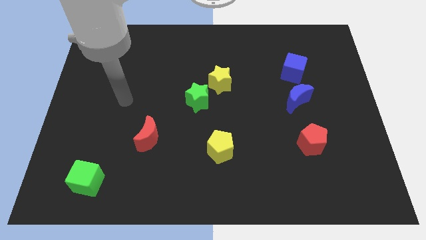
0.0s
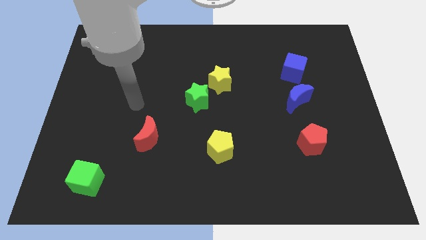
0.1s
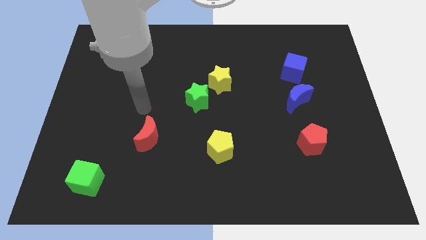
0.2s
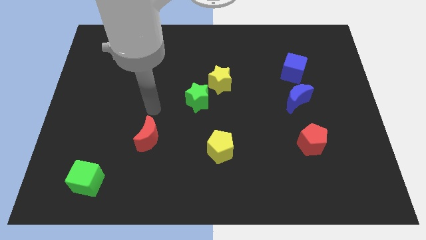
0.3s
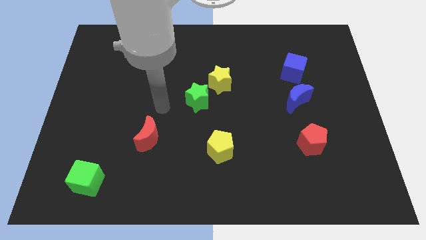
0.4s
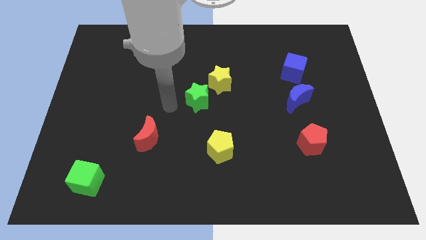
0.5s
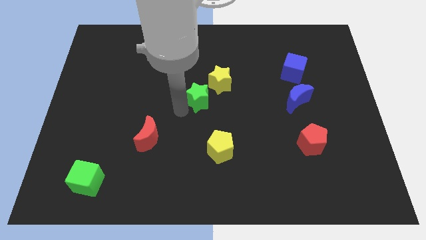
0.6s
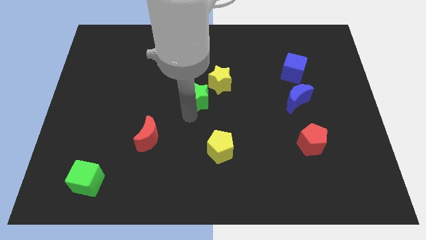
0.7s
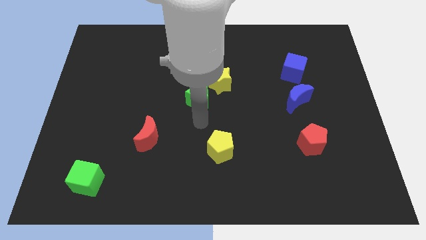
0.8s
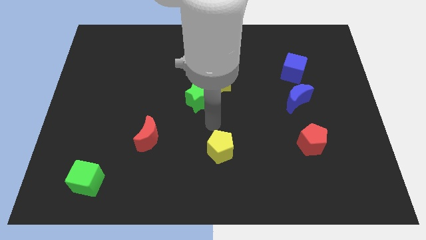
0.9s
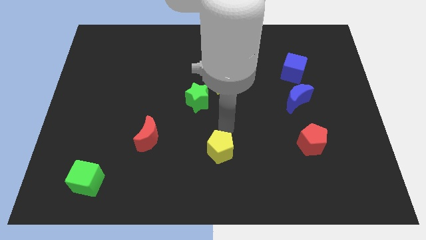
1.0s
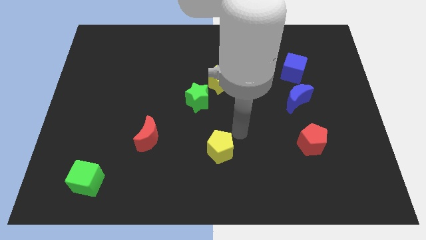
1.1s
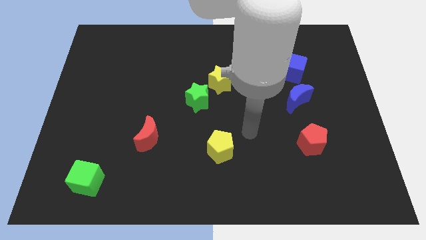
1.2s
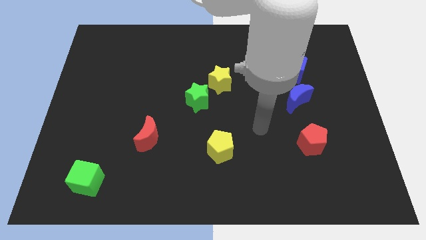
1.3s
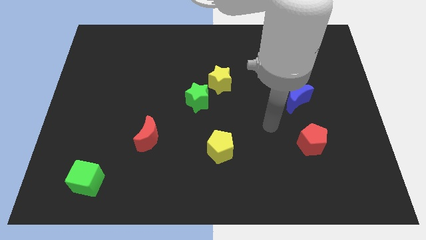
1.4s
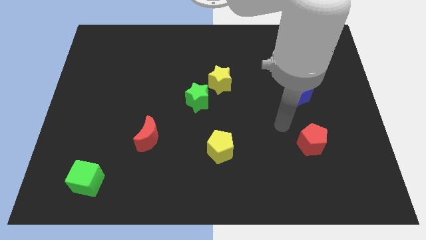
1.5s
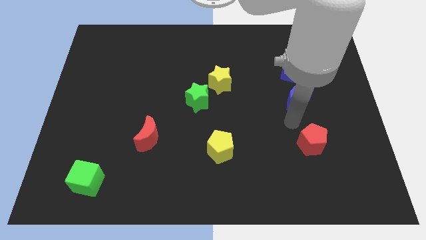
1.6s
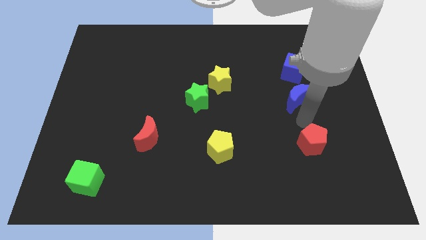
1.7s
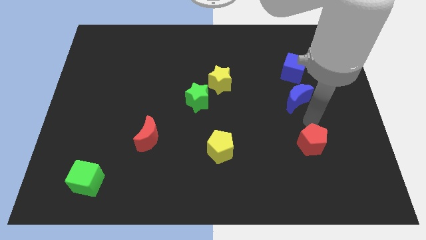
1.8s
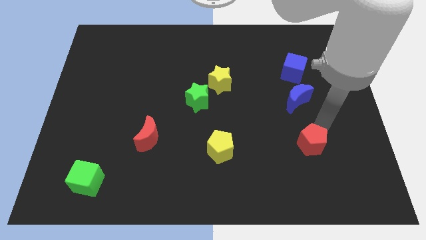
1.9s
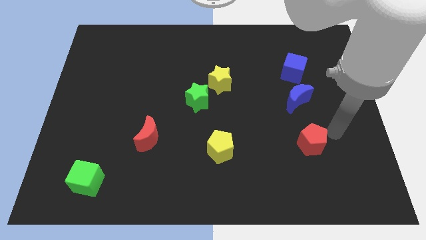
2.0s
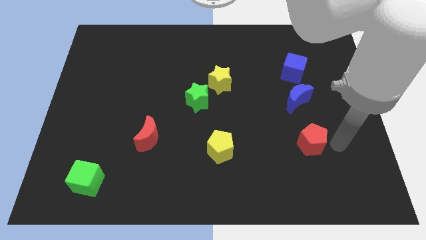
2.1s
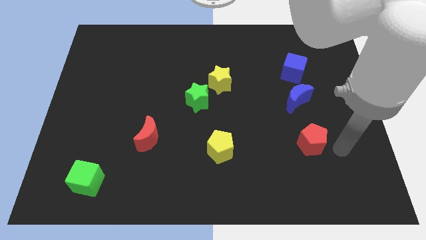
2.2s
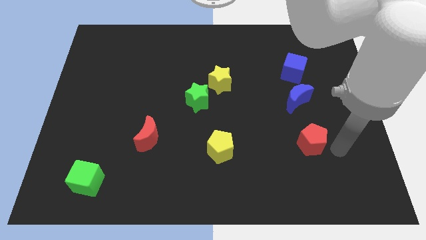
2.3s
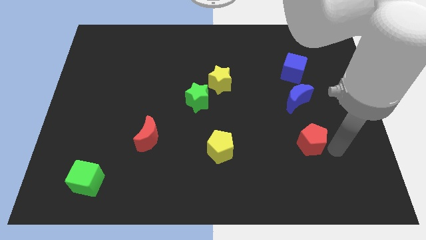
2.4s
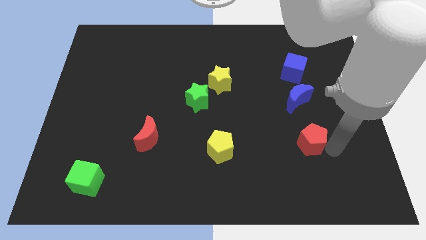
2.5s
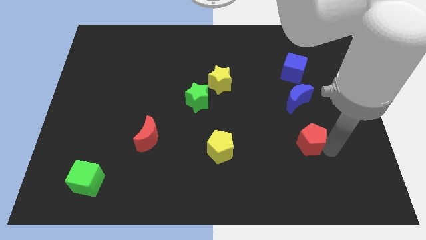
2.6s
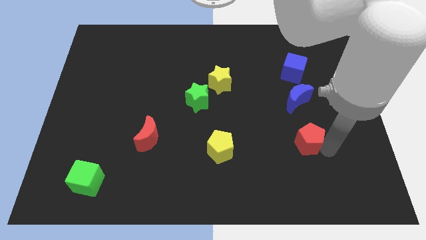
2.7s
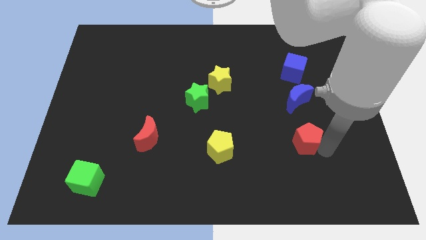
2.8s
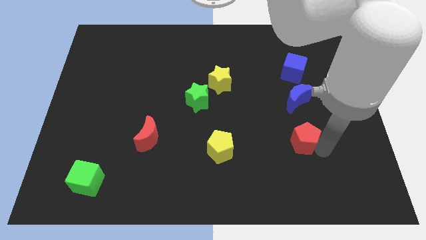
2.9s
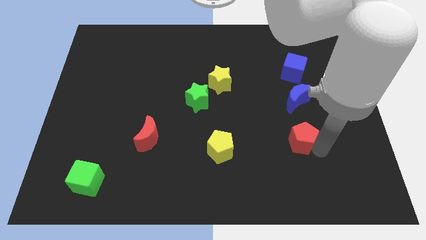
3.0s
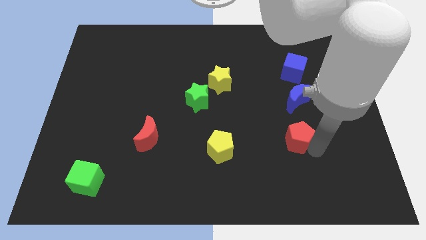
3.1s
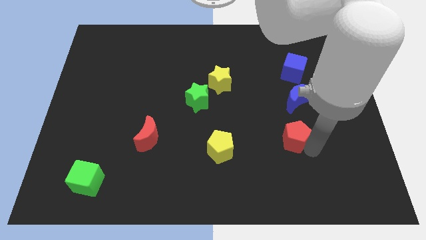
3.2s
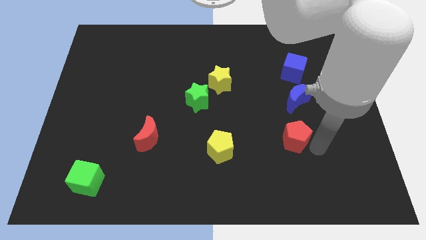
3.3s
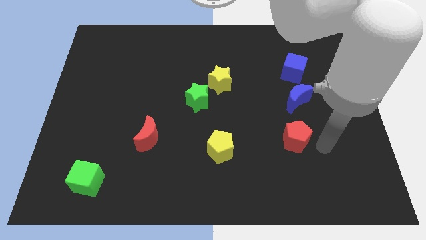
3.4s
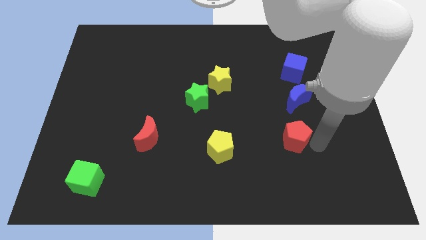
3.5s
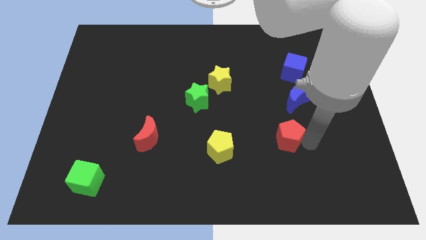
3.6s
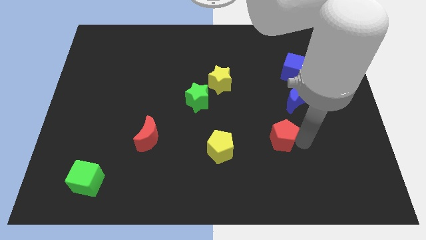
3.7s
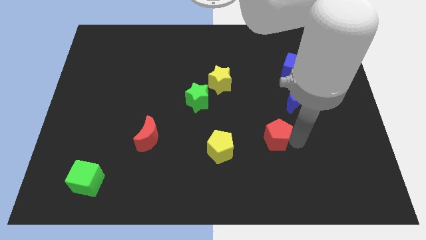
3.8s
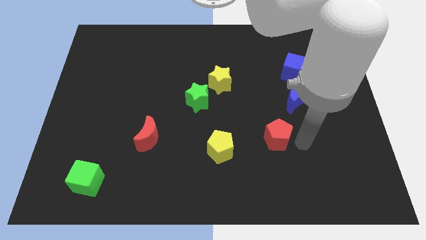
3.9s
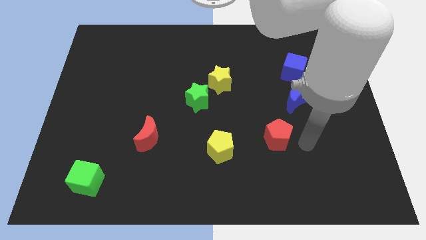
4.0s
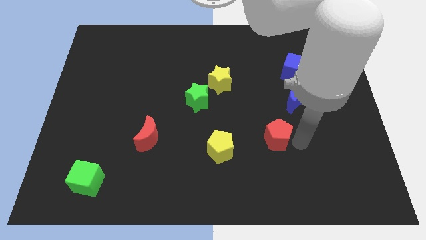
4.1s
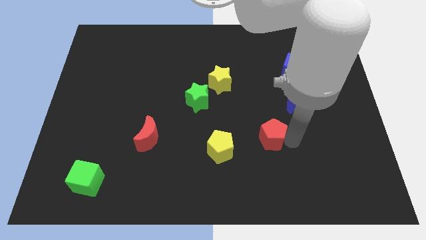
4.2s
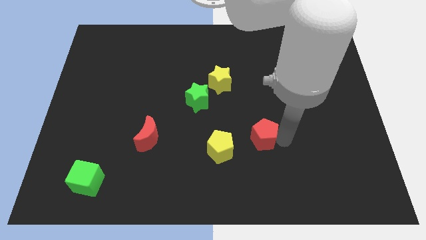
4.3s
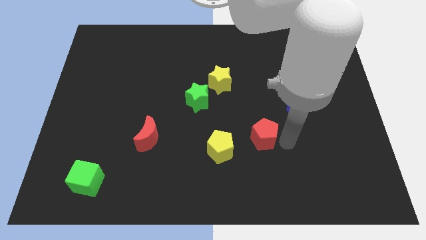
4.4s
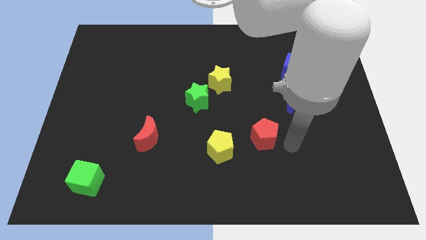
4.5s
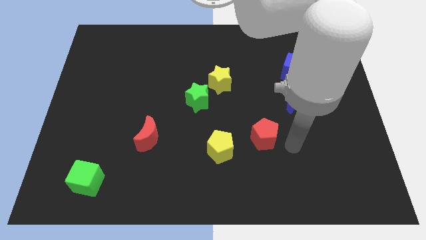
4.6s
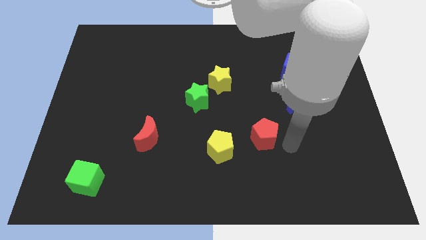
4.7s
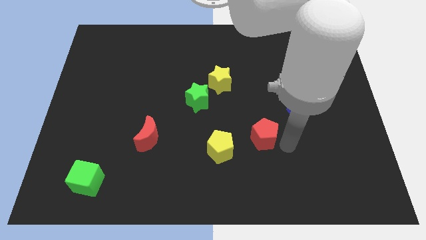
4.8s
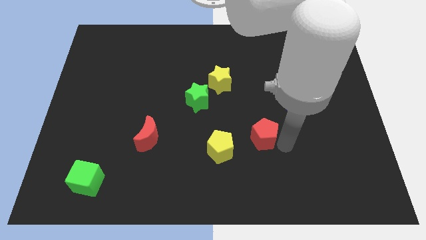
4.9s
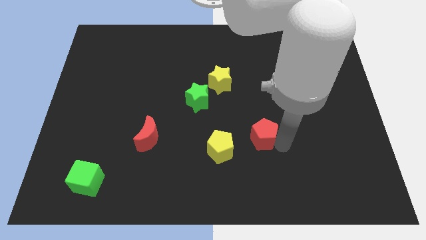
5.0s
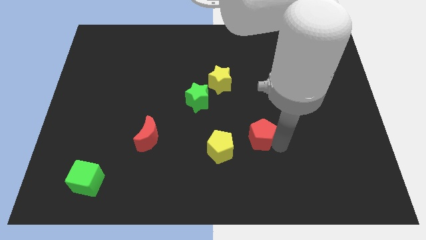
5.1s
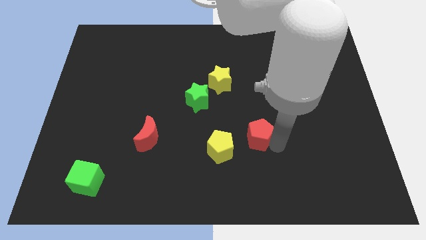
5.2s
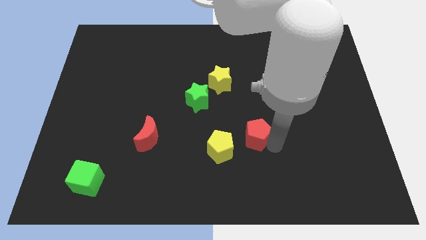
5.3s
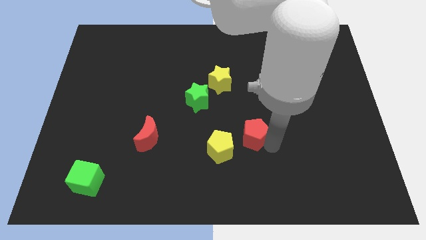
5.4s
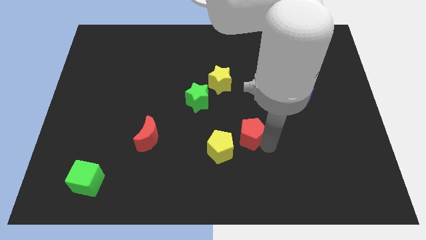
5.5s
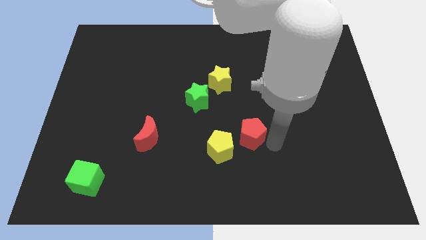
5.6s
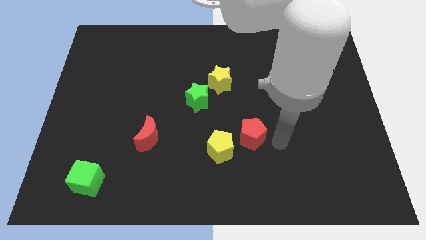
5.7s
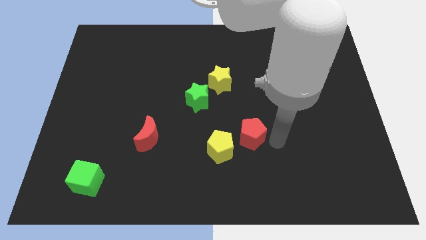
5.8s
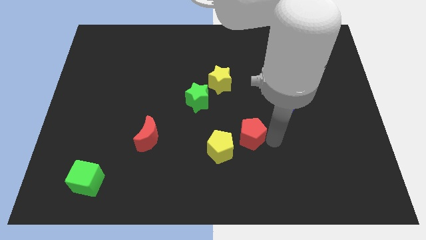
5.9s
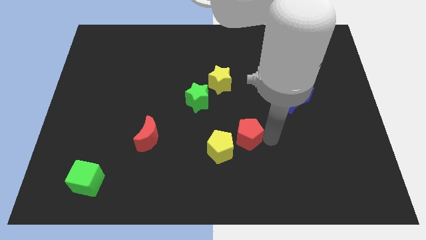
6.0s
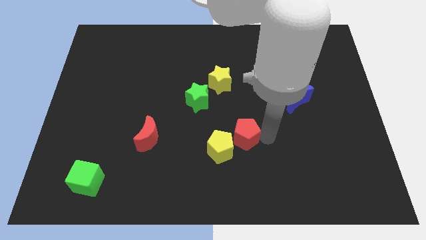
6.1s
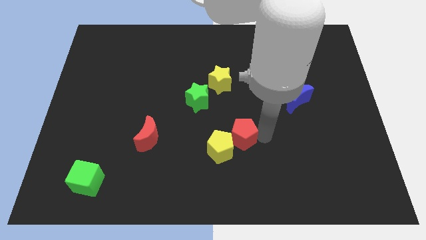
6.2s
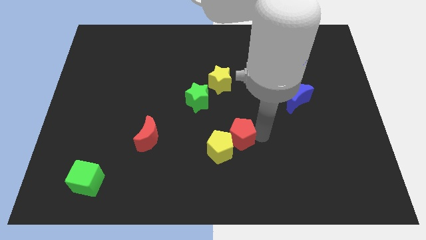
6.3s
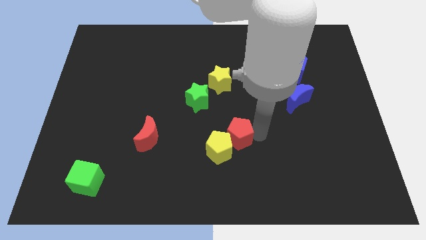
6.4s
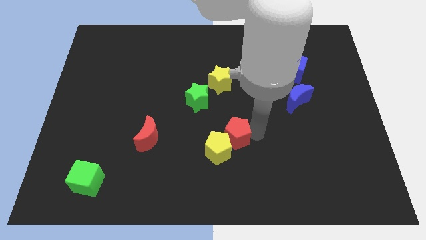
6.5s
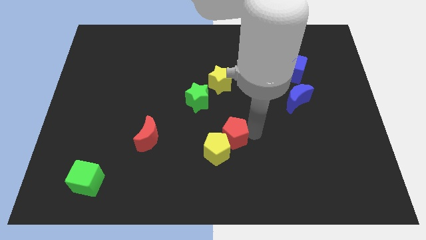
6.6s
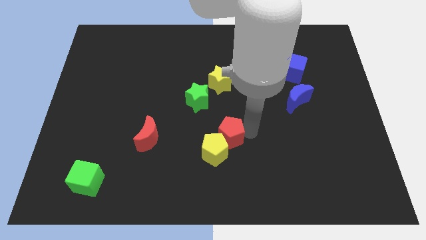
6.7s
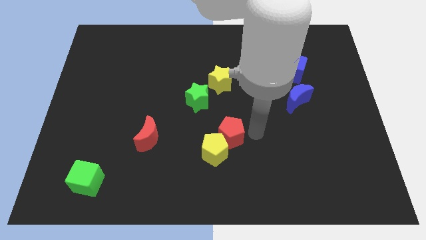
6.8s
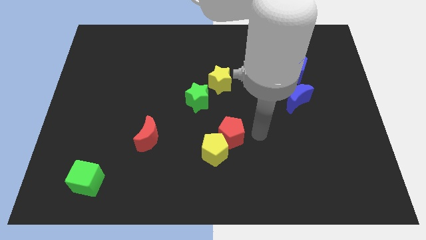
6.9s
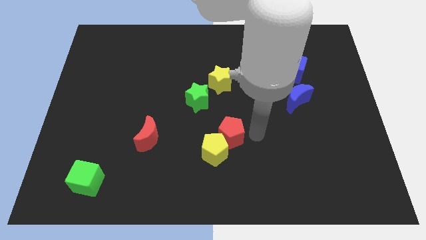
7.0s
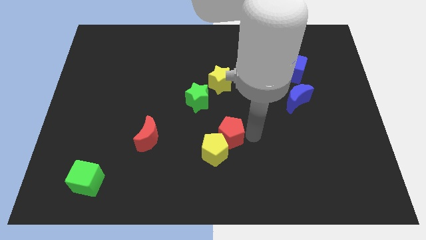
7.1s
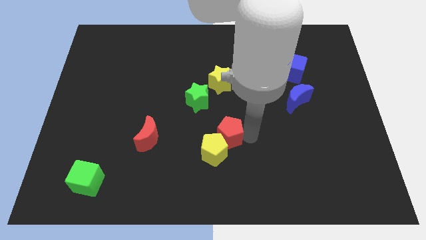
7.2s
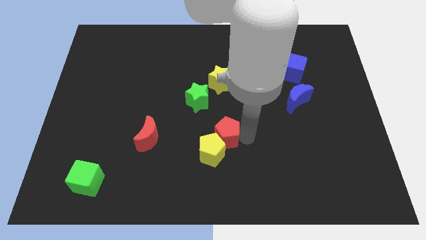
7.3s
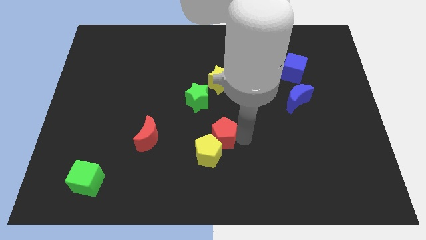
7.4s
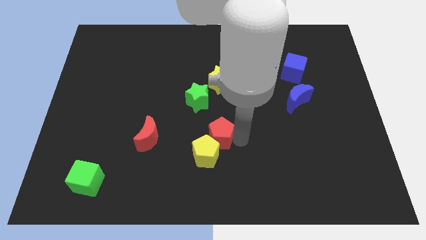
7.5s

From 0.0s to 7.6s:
push the red pentagon to the bottom side of the green star

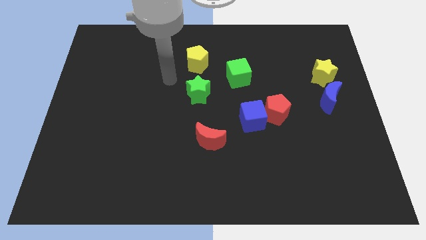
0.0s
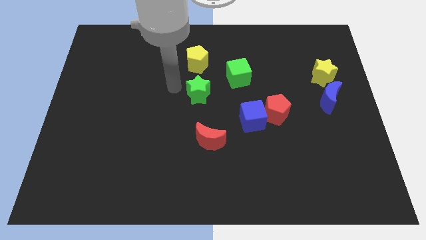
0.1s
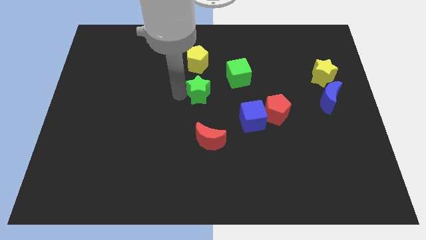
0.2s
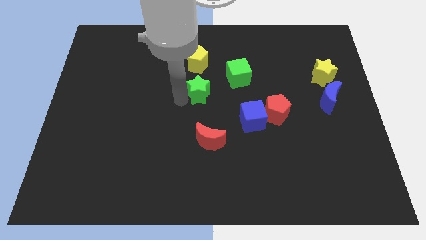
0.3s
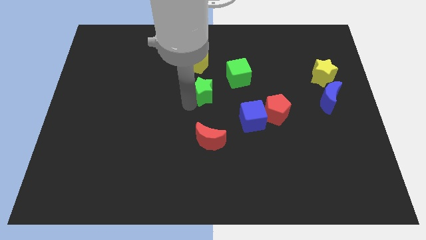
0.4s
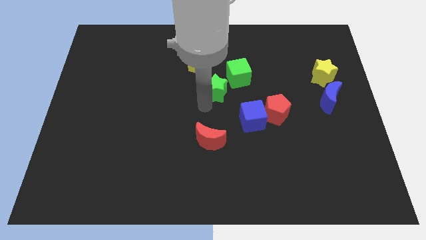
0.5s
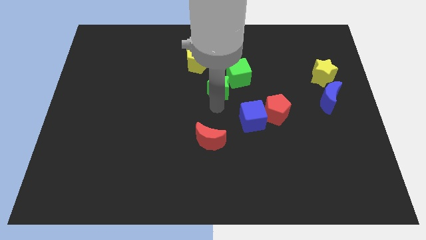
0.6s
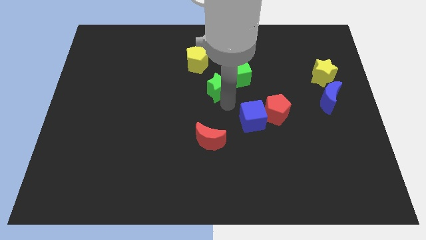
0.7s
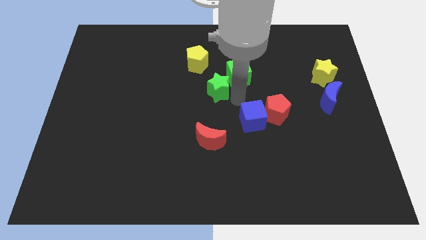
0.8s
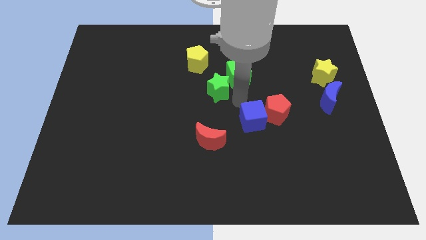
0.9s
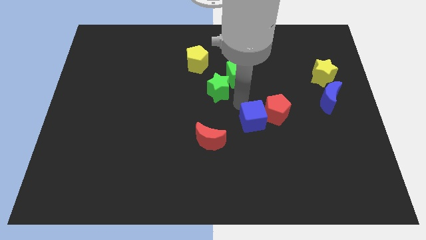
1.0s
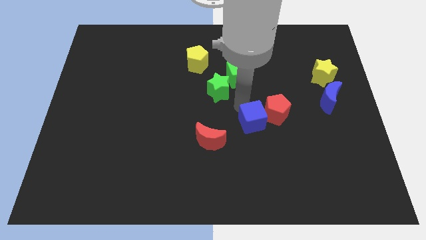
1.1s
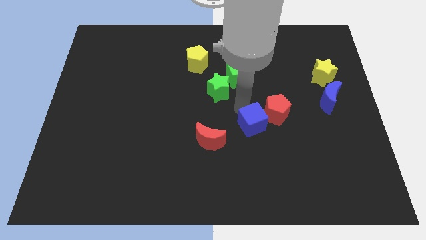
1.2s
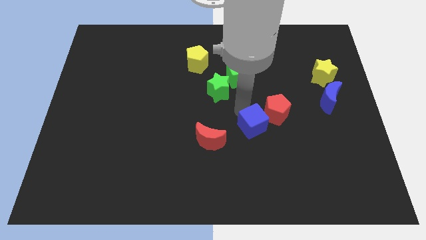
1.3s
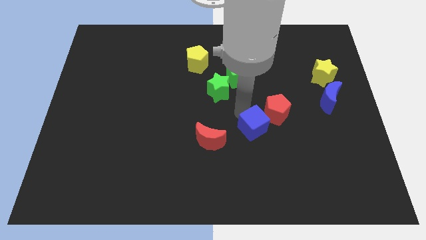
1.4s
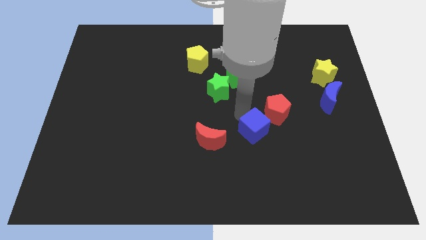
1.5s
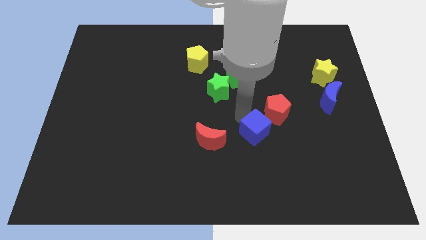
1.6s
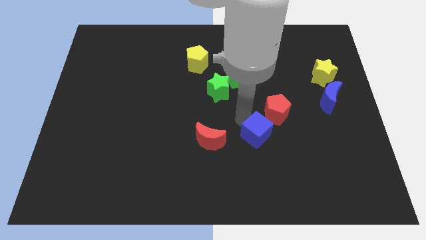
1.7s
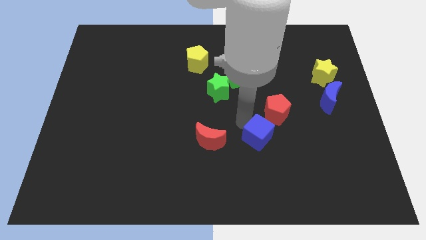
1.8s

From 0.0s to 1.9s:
slide the blue cube to the bottom side of the red pentagon
